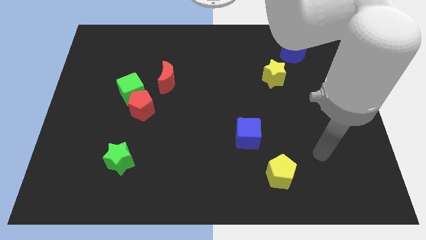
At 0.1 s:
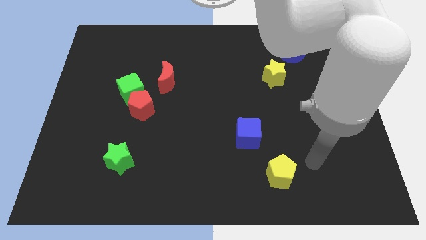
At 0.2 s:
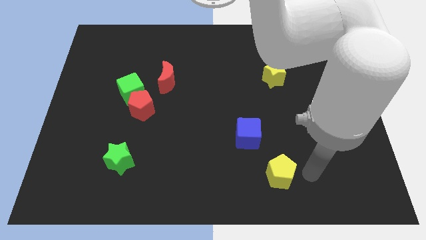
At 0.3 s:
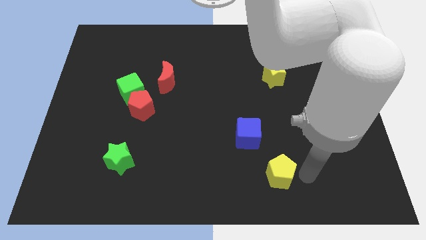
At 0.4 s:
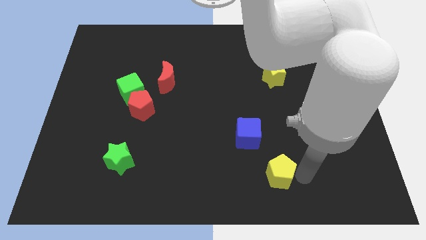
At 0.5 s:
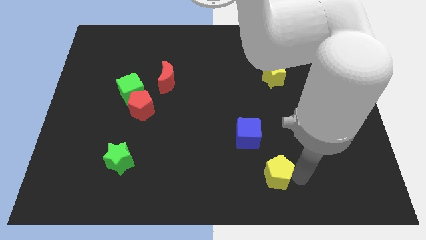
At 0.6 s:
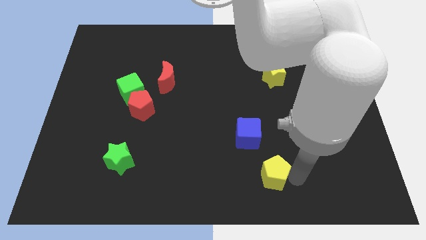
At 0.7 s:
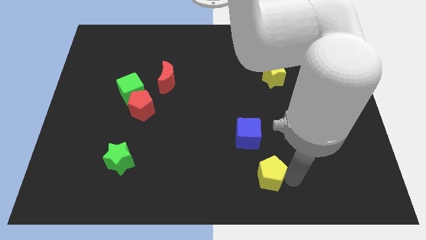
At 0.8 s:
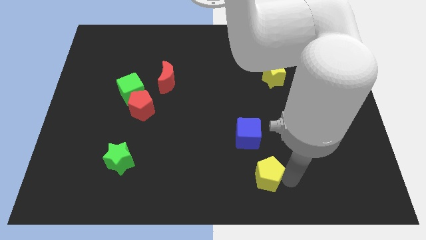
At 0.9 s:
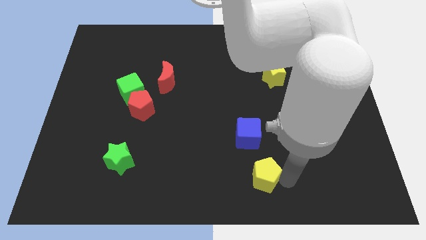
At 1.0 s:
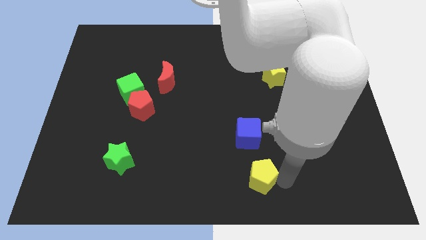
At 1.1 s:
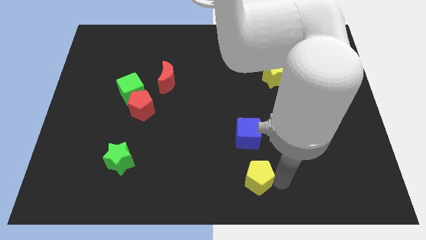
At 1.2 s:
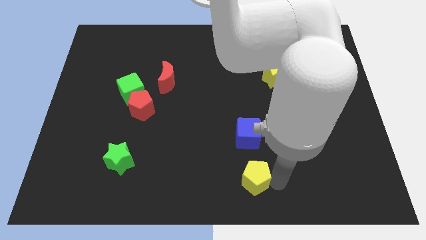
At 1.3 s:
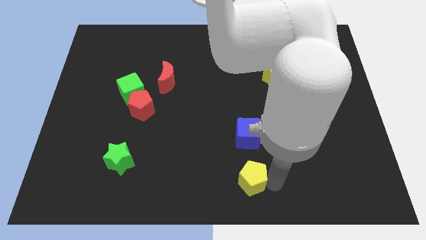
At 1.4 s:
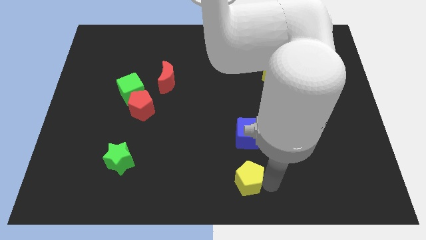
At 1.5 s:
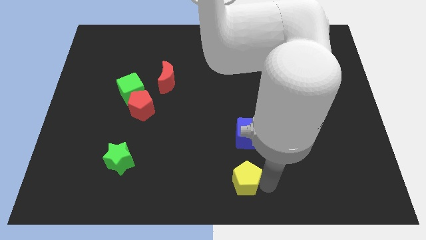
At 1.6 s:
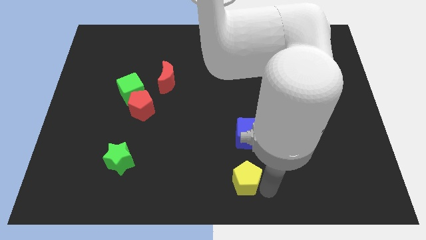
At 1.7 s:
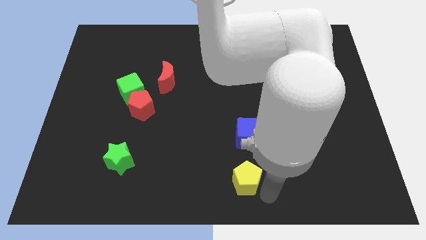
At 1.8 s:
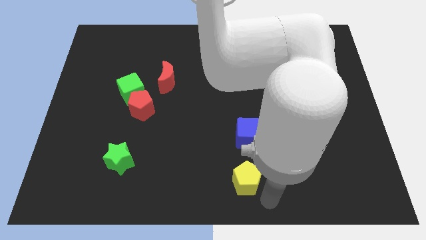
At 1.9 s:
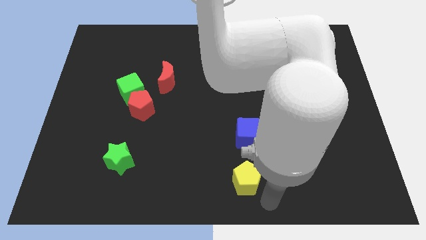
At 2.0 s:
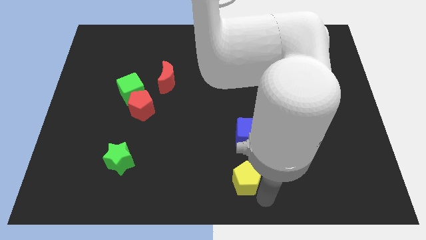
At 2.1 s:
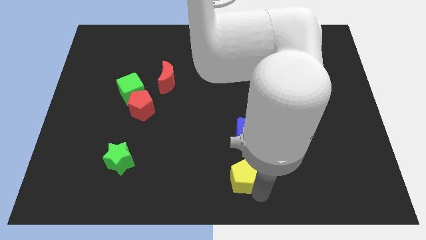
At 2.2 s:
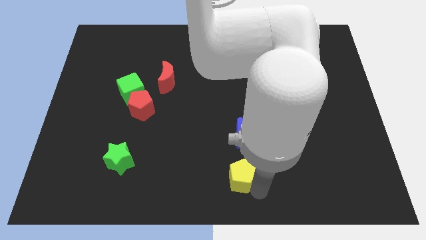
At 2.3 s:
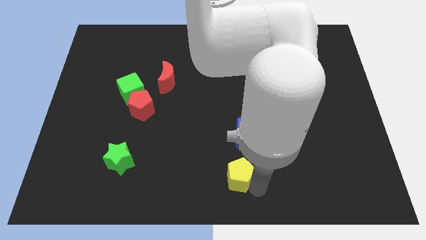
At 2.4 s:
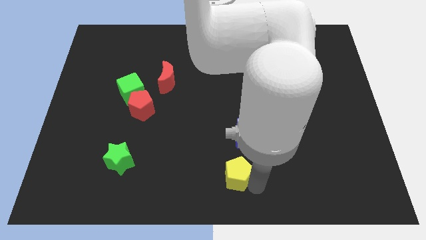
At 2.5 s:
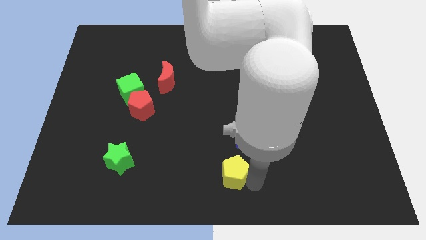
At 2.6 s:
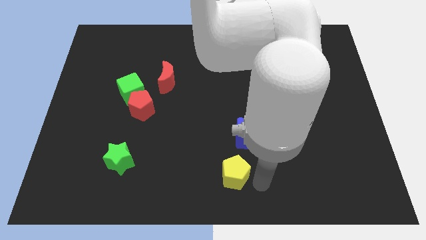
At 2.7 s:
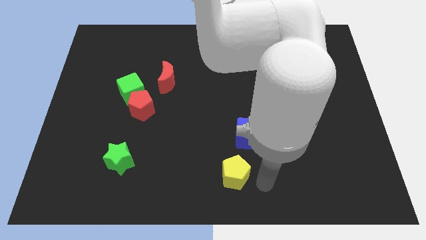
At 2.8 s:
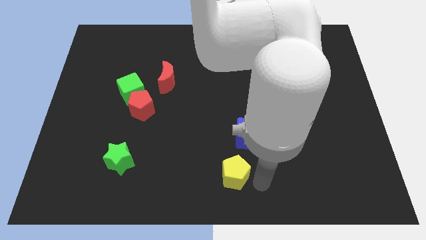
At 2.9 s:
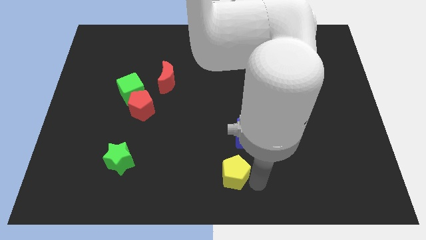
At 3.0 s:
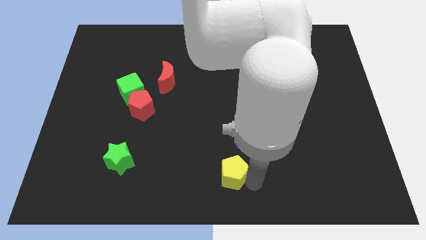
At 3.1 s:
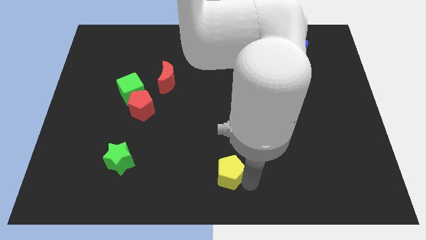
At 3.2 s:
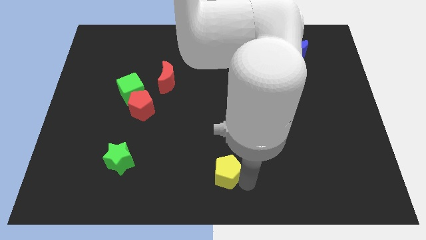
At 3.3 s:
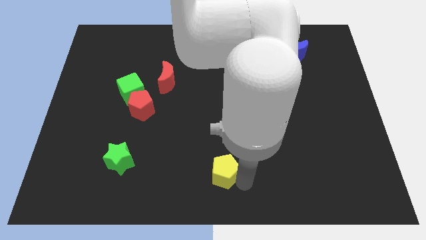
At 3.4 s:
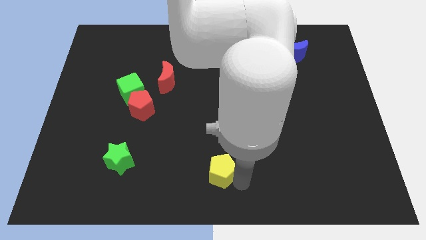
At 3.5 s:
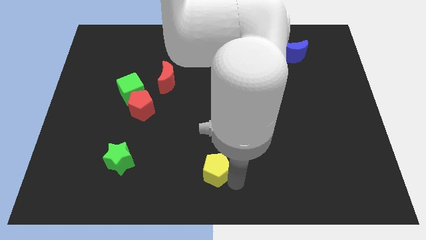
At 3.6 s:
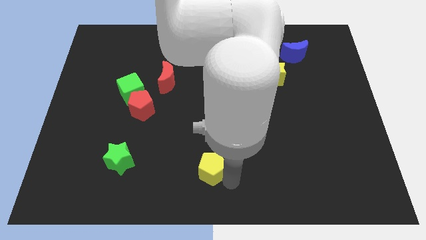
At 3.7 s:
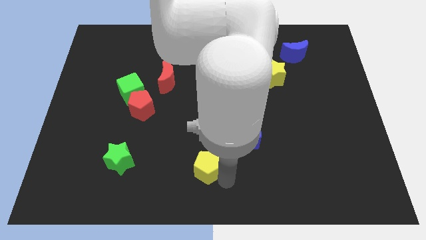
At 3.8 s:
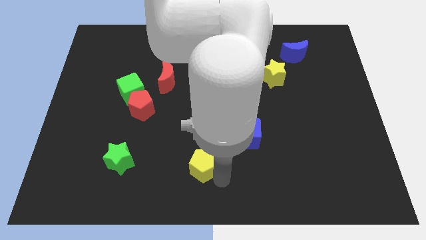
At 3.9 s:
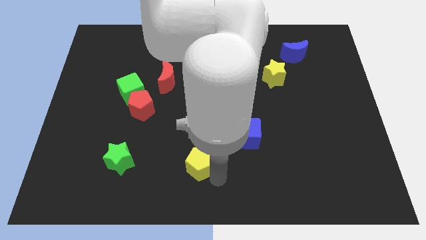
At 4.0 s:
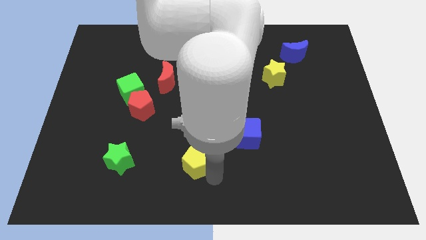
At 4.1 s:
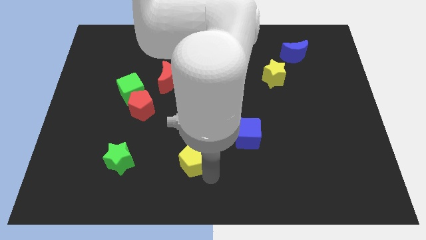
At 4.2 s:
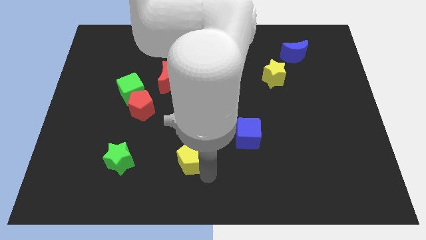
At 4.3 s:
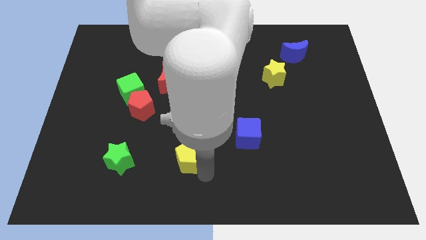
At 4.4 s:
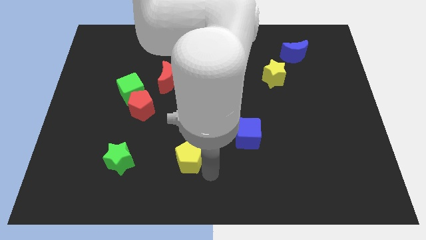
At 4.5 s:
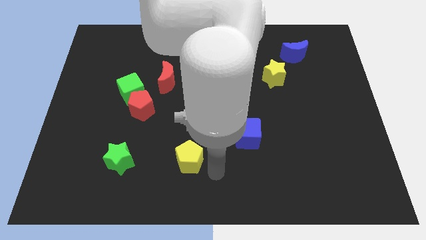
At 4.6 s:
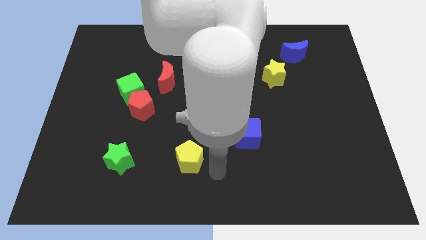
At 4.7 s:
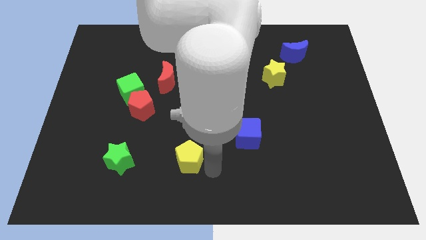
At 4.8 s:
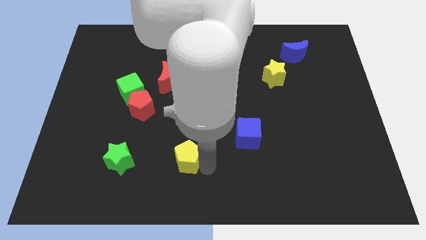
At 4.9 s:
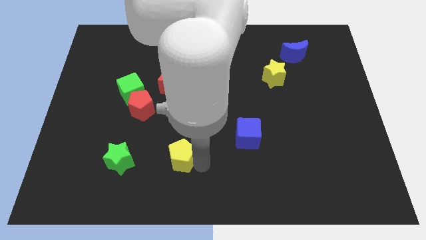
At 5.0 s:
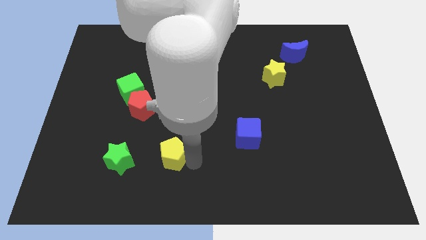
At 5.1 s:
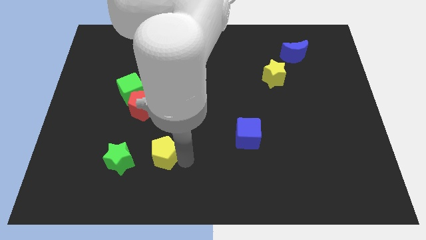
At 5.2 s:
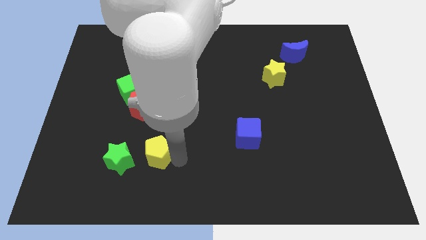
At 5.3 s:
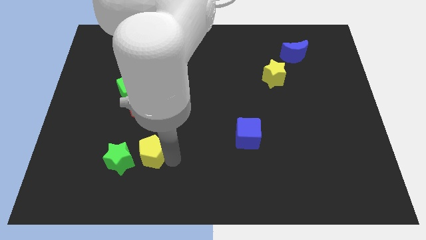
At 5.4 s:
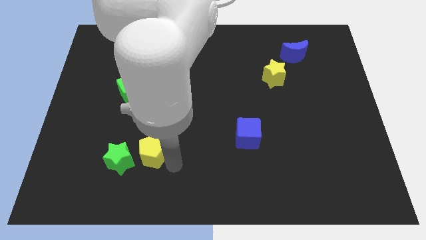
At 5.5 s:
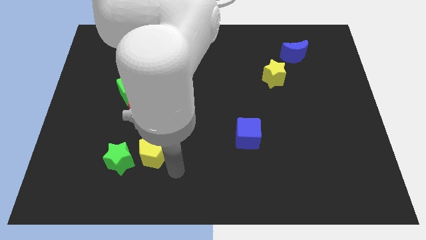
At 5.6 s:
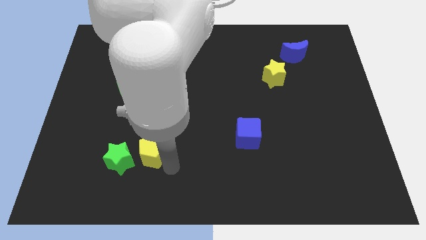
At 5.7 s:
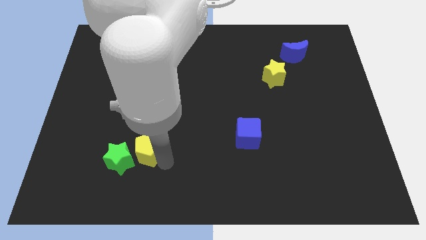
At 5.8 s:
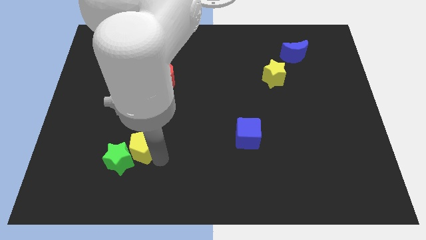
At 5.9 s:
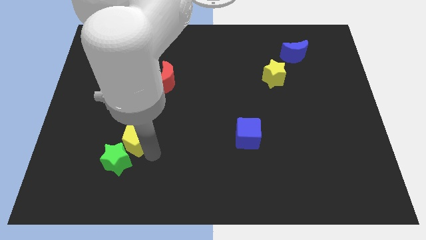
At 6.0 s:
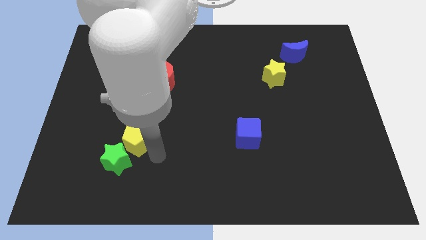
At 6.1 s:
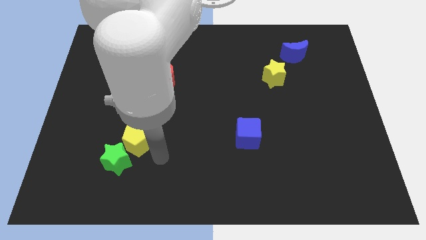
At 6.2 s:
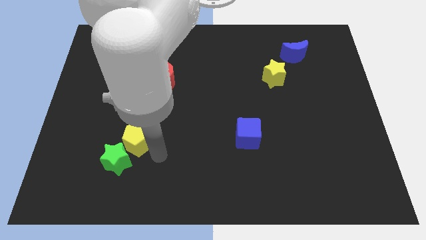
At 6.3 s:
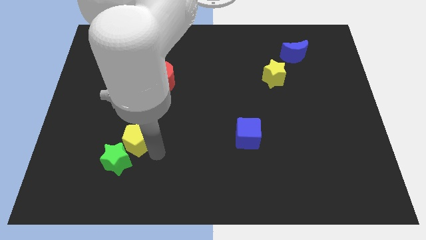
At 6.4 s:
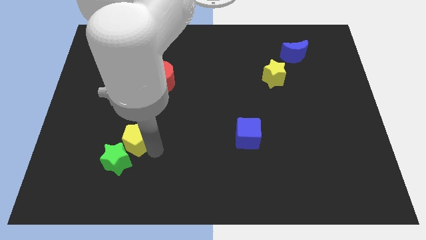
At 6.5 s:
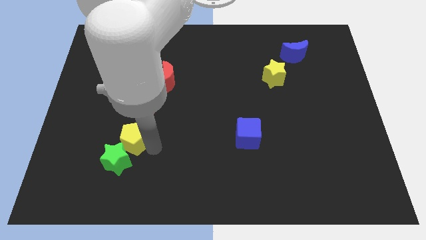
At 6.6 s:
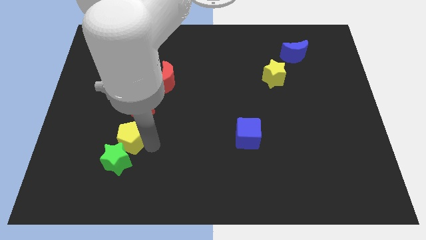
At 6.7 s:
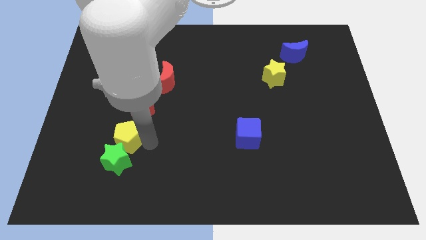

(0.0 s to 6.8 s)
slide the yellow pentagon to the bottom left side of the red pentagon

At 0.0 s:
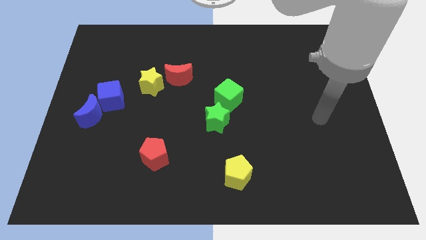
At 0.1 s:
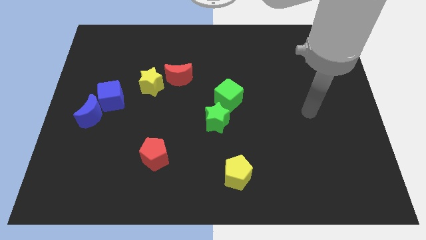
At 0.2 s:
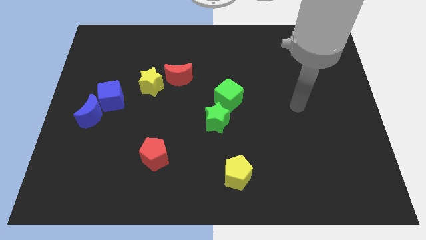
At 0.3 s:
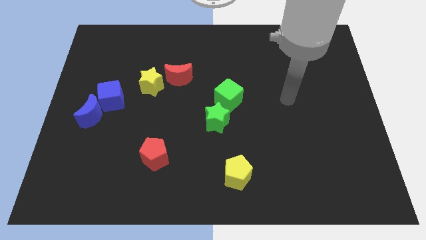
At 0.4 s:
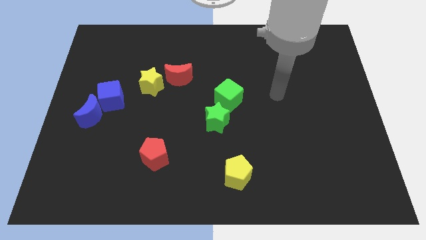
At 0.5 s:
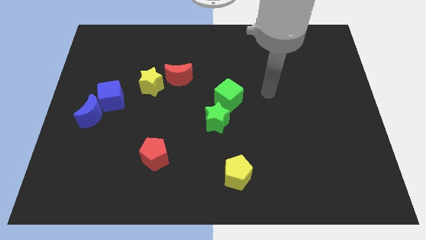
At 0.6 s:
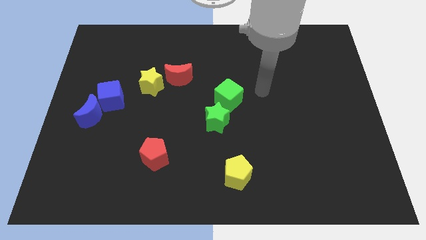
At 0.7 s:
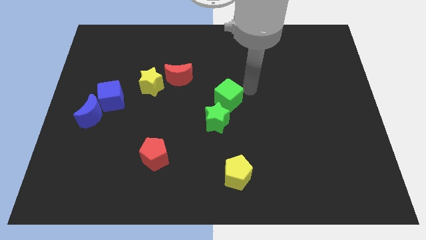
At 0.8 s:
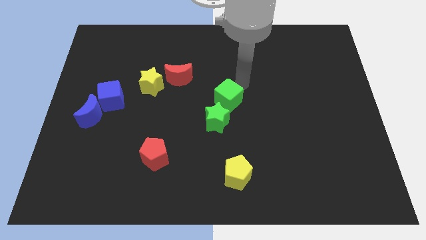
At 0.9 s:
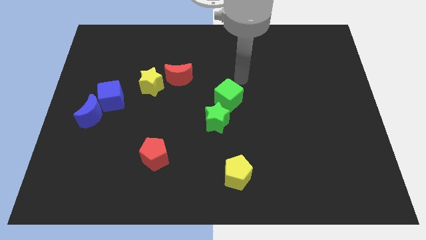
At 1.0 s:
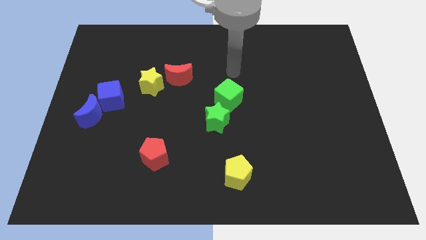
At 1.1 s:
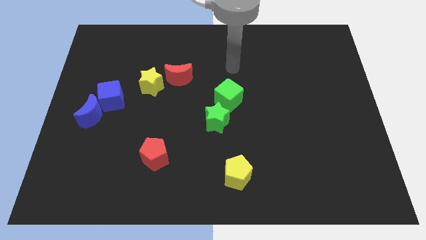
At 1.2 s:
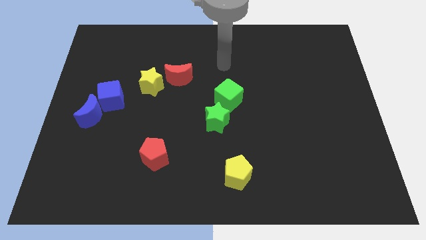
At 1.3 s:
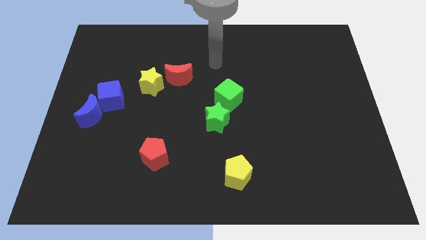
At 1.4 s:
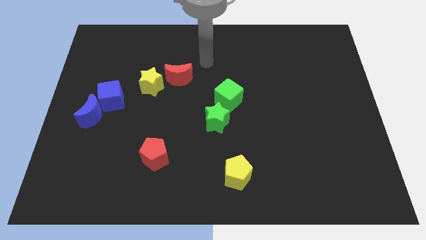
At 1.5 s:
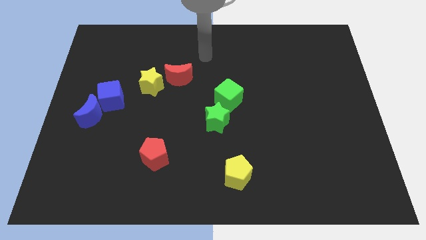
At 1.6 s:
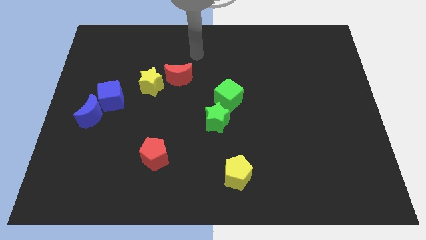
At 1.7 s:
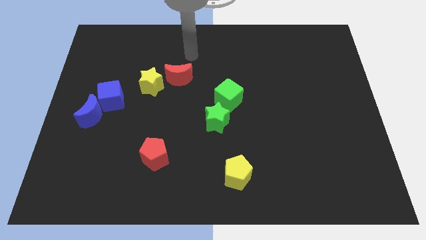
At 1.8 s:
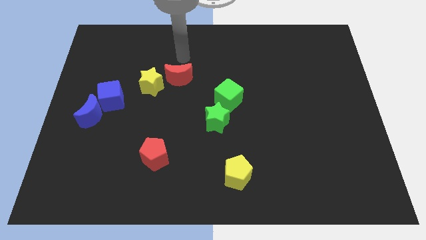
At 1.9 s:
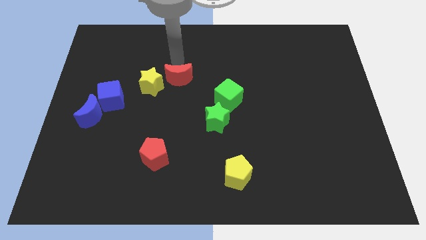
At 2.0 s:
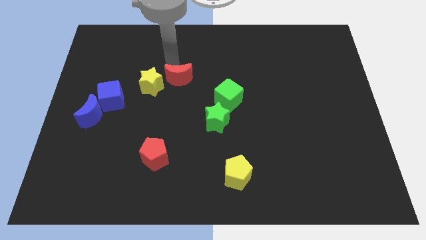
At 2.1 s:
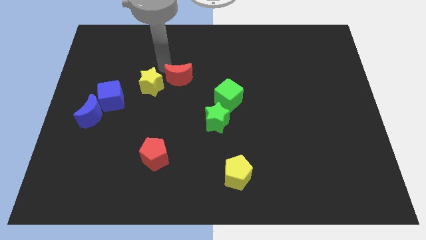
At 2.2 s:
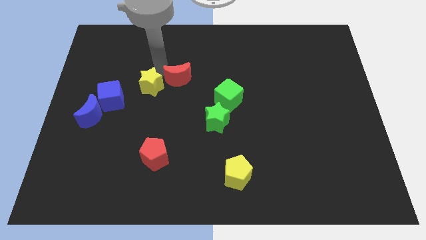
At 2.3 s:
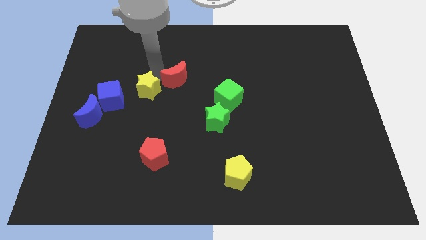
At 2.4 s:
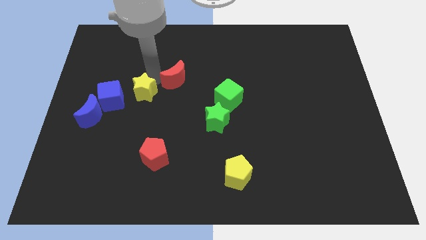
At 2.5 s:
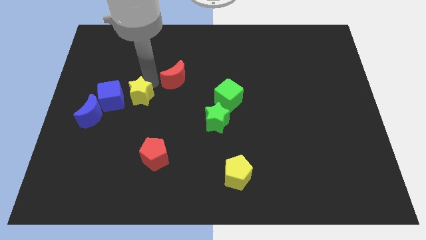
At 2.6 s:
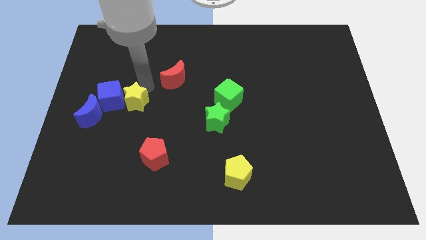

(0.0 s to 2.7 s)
push the yellow star to the bottom right of the blue cube
